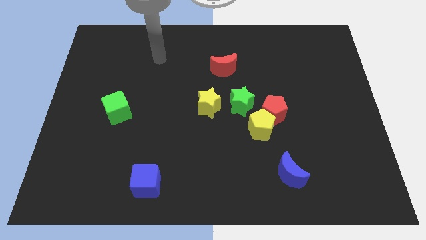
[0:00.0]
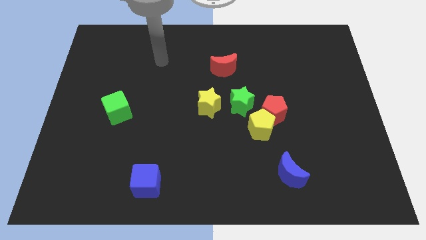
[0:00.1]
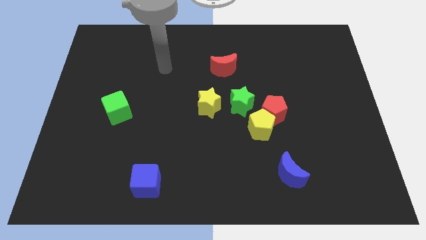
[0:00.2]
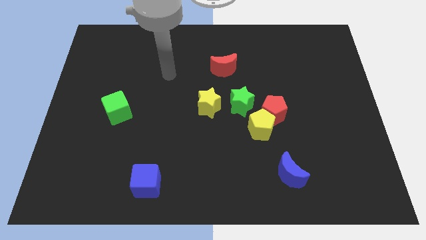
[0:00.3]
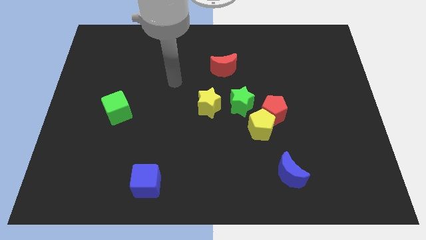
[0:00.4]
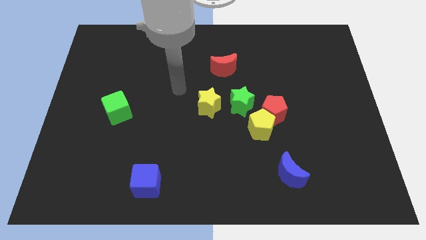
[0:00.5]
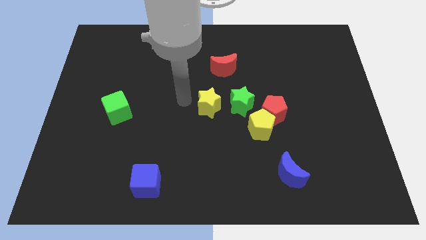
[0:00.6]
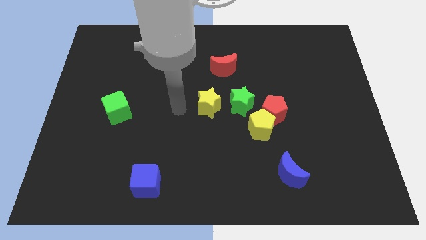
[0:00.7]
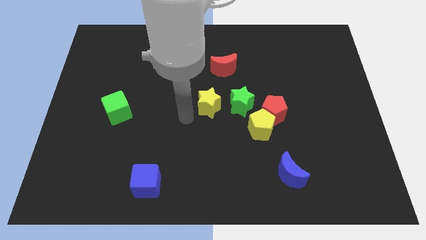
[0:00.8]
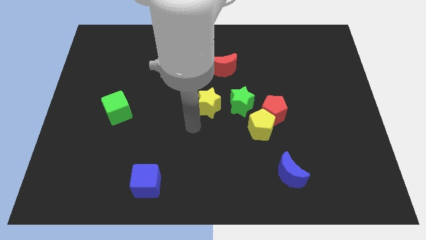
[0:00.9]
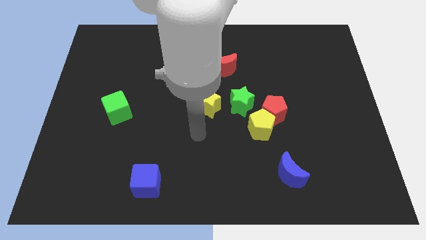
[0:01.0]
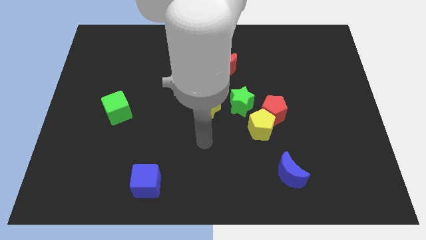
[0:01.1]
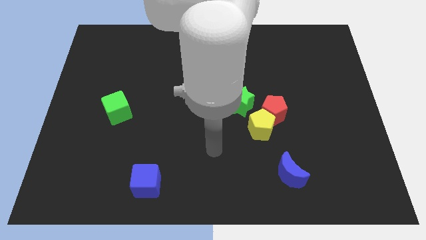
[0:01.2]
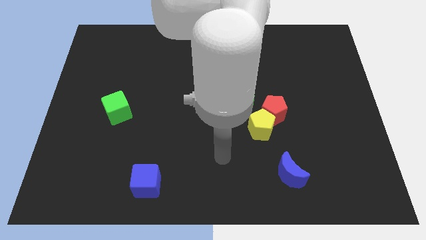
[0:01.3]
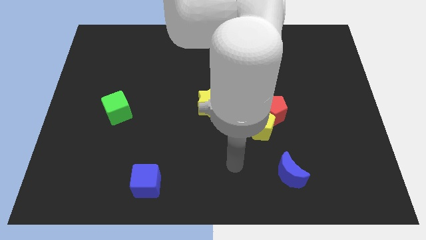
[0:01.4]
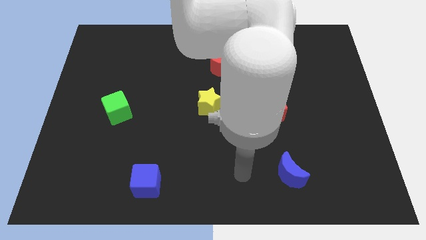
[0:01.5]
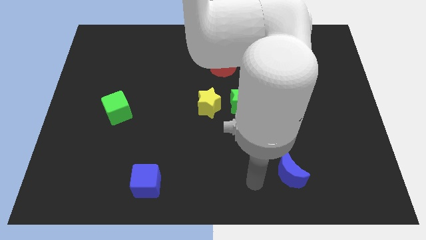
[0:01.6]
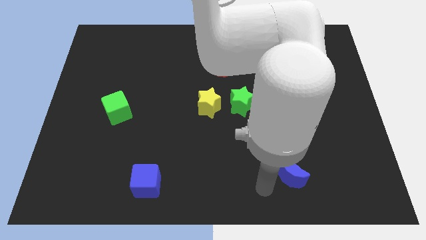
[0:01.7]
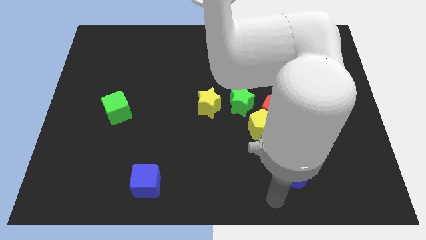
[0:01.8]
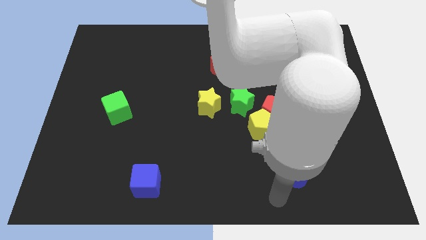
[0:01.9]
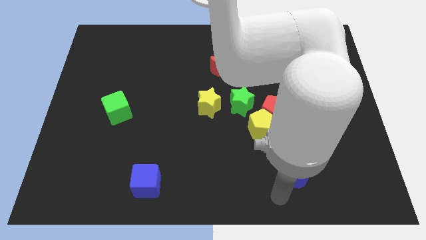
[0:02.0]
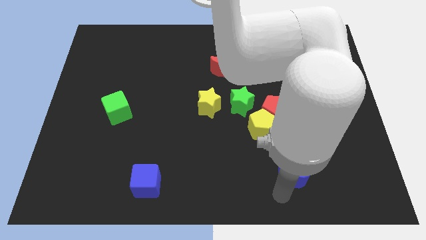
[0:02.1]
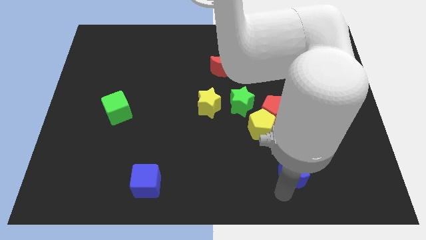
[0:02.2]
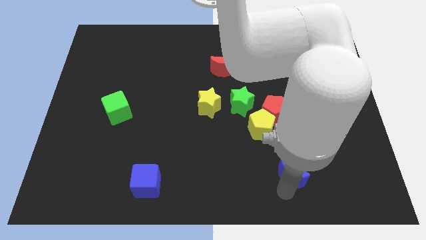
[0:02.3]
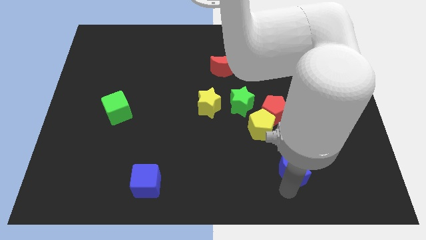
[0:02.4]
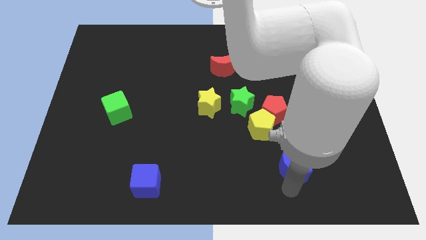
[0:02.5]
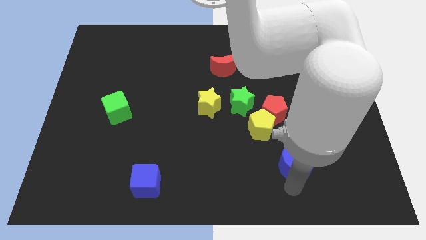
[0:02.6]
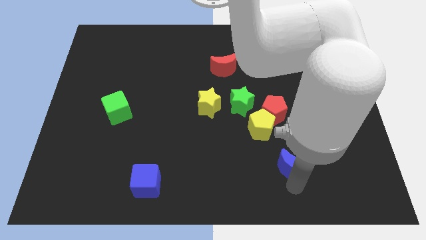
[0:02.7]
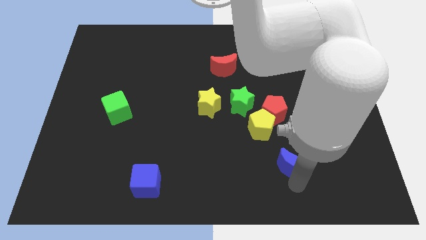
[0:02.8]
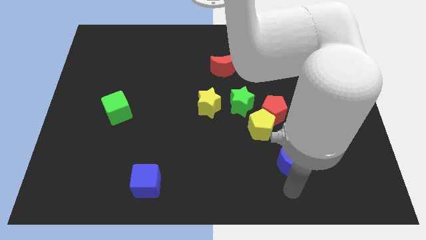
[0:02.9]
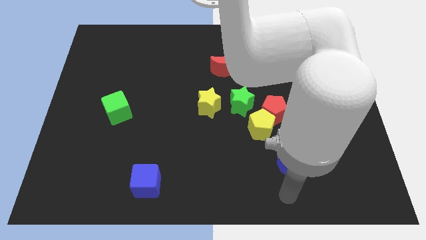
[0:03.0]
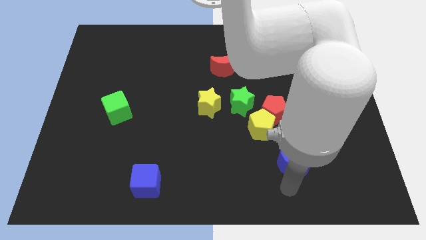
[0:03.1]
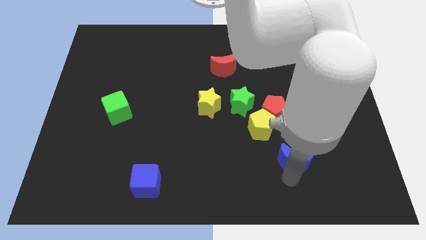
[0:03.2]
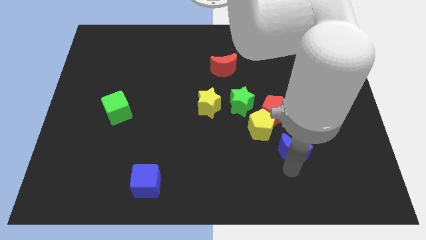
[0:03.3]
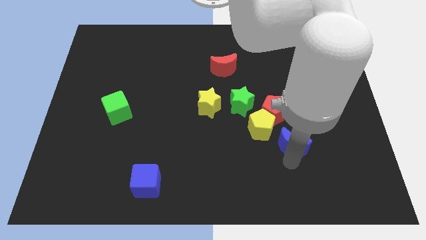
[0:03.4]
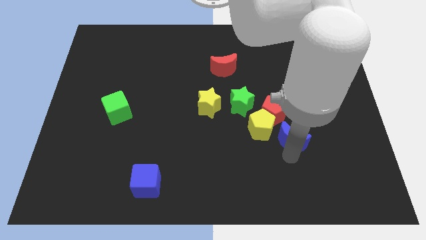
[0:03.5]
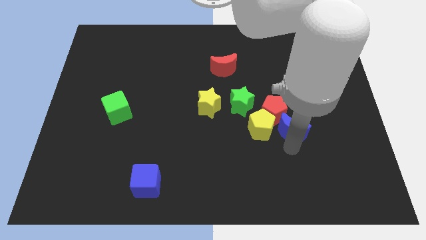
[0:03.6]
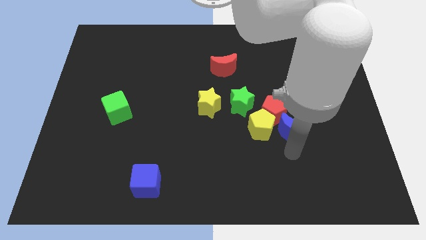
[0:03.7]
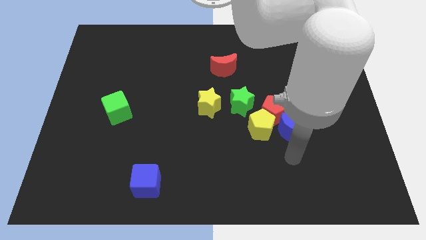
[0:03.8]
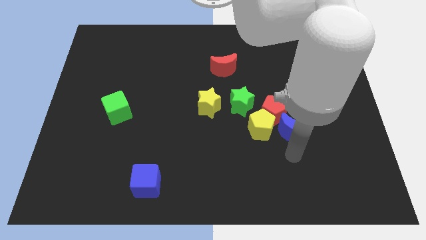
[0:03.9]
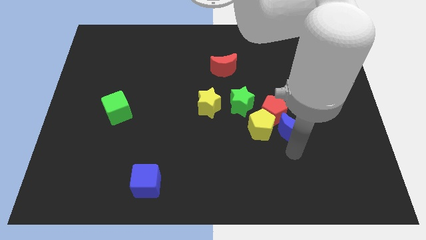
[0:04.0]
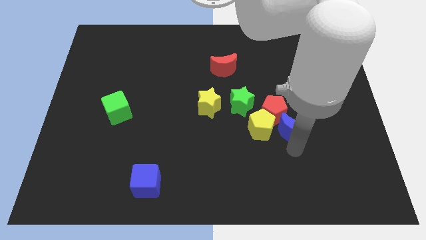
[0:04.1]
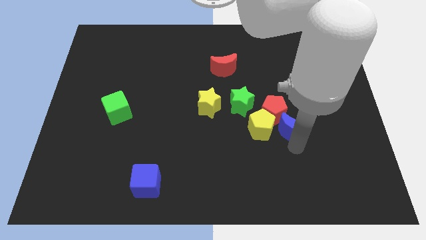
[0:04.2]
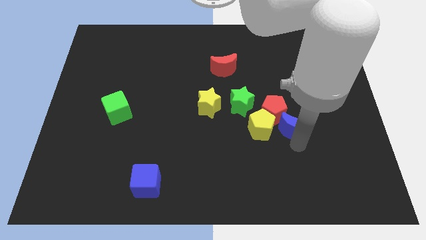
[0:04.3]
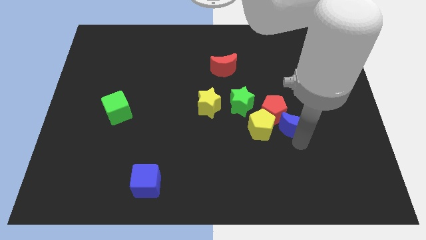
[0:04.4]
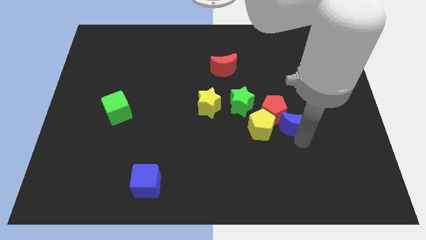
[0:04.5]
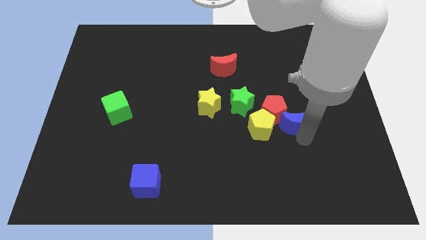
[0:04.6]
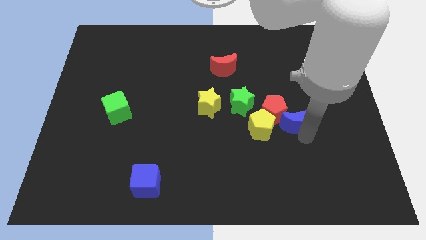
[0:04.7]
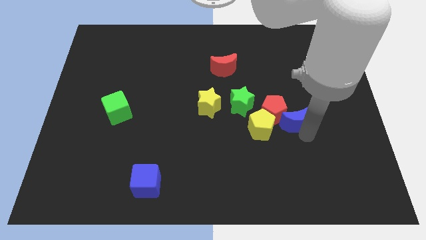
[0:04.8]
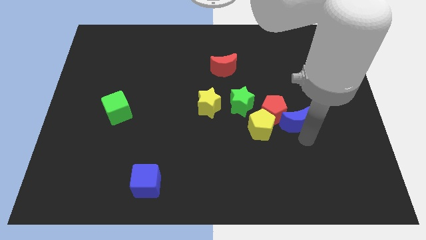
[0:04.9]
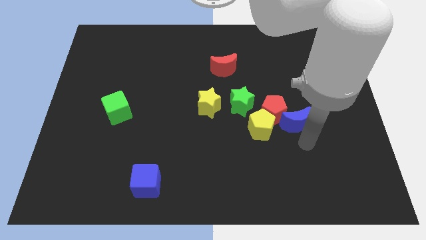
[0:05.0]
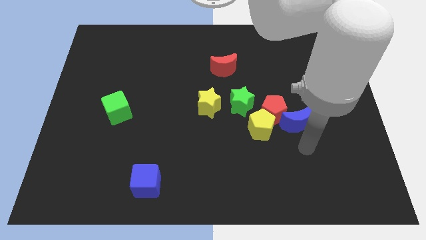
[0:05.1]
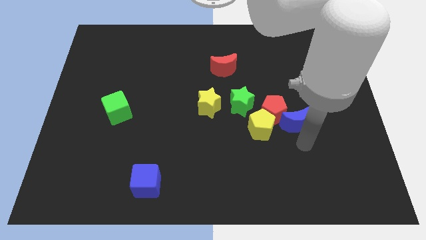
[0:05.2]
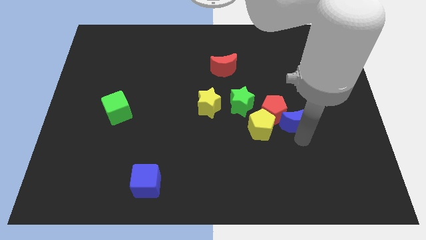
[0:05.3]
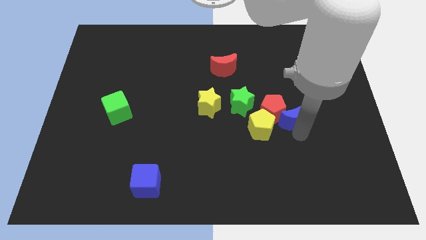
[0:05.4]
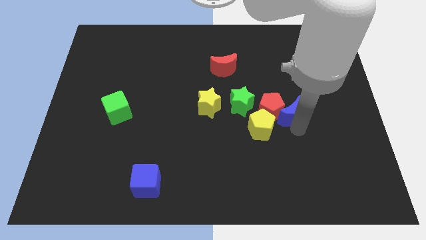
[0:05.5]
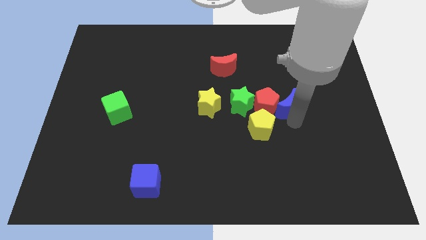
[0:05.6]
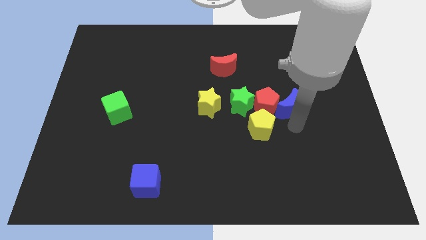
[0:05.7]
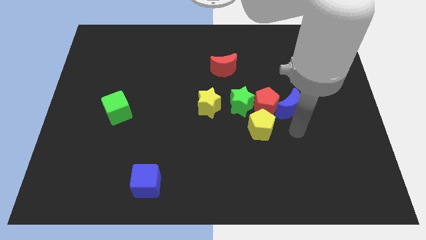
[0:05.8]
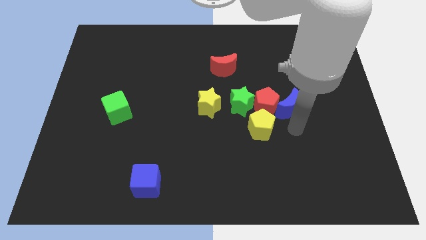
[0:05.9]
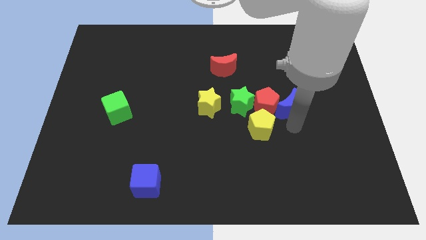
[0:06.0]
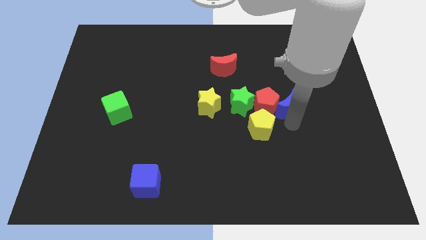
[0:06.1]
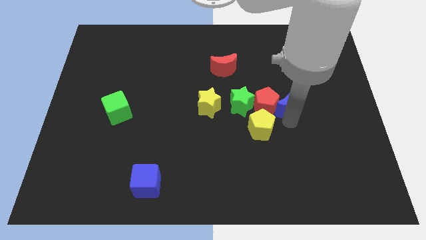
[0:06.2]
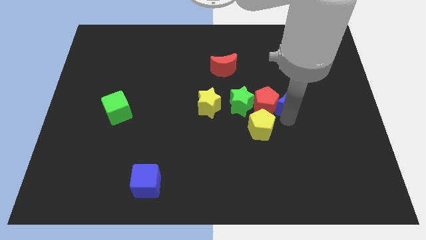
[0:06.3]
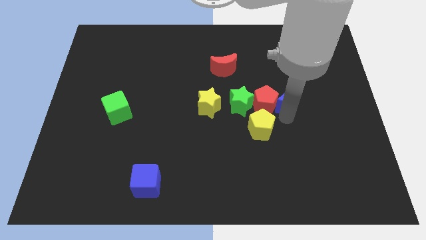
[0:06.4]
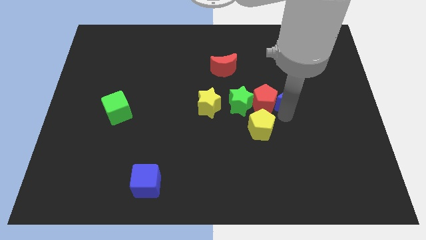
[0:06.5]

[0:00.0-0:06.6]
push the blue moon up

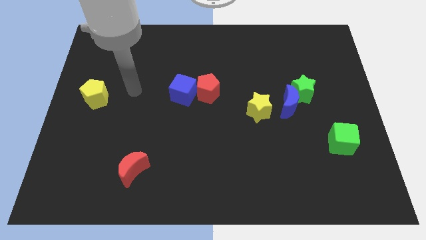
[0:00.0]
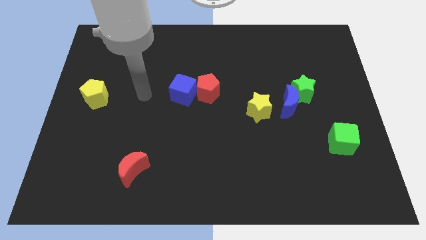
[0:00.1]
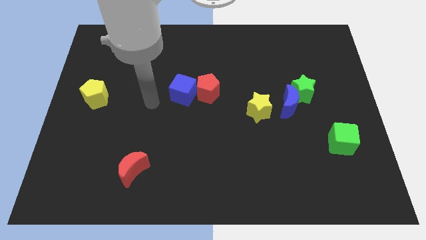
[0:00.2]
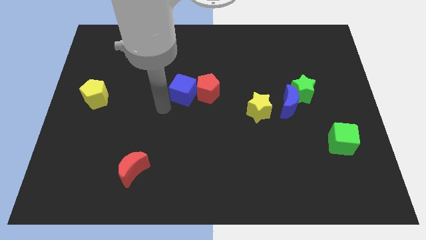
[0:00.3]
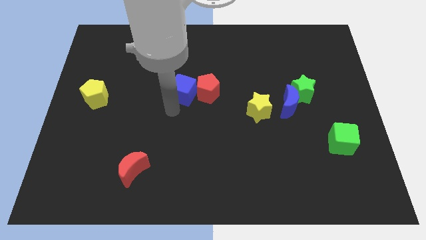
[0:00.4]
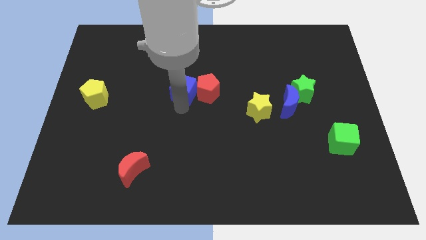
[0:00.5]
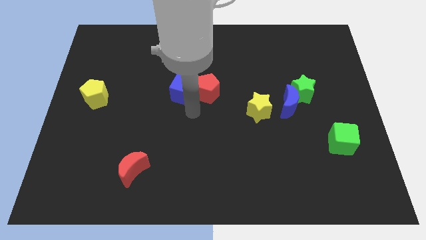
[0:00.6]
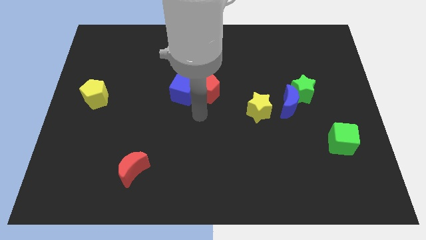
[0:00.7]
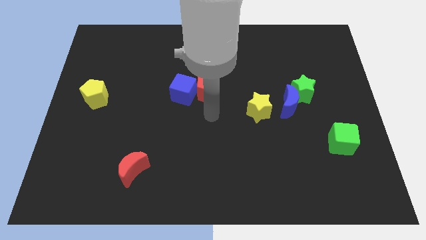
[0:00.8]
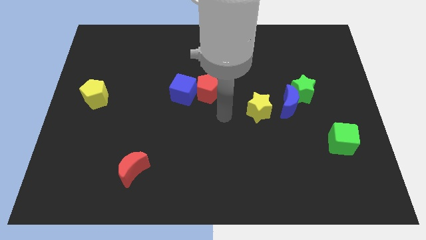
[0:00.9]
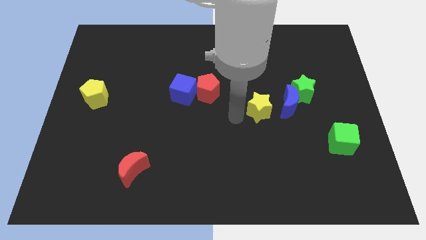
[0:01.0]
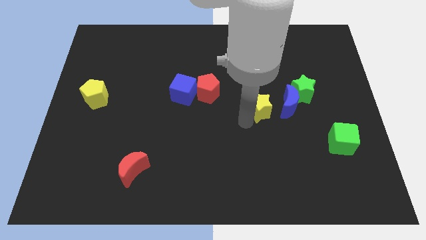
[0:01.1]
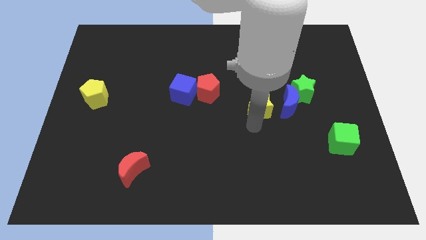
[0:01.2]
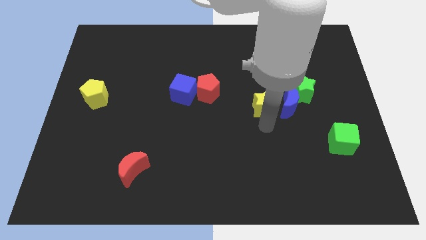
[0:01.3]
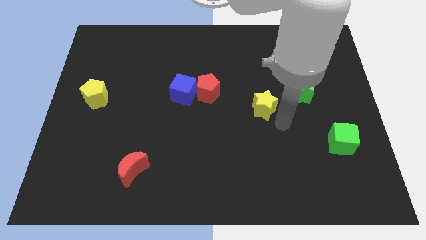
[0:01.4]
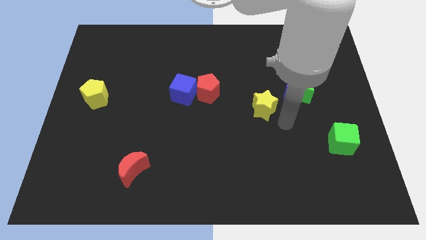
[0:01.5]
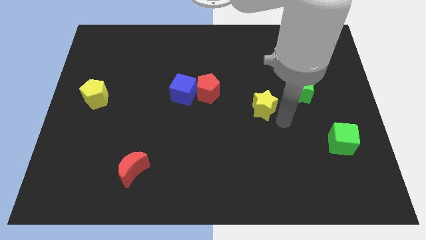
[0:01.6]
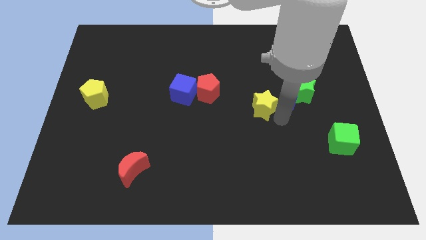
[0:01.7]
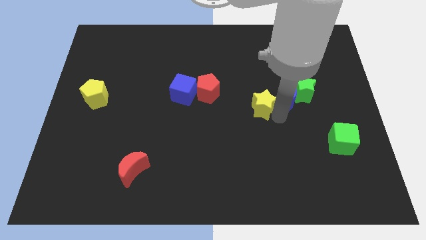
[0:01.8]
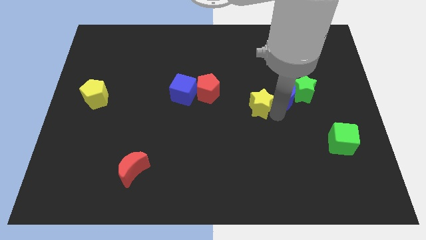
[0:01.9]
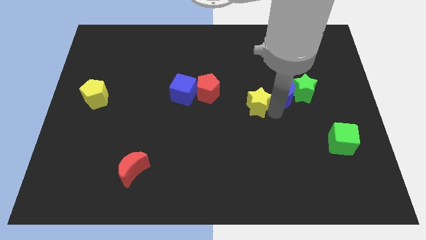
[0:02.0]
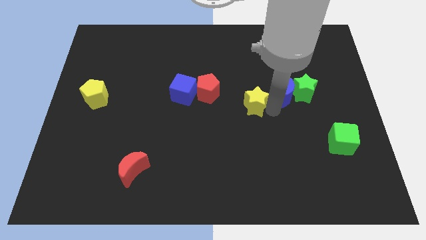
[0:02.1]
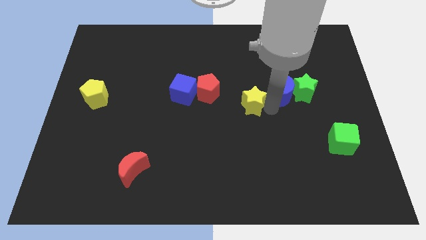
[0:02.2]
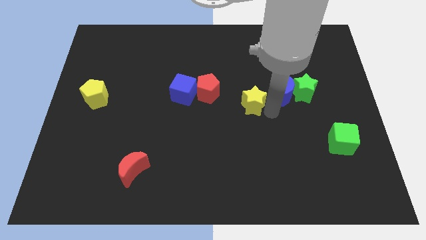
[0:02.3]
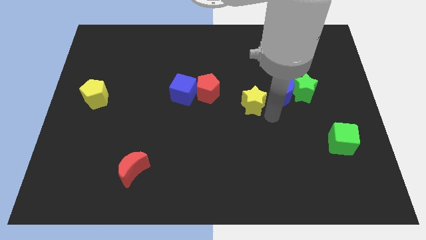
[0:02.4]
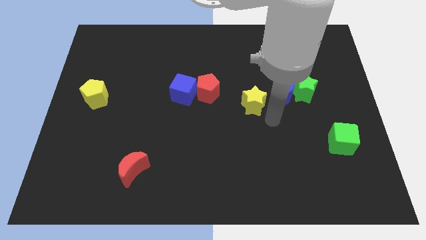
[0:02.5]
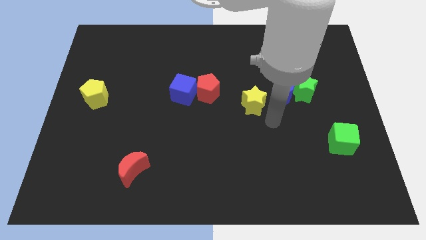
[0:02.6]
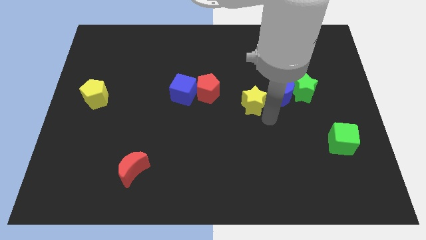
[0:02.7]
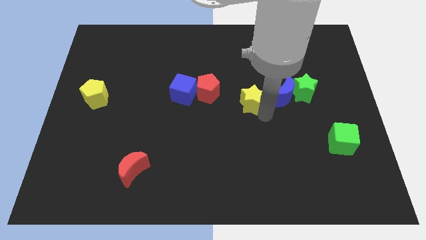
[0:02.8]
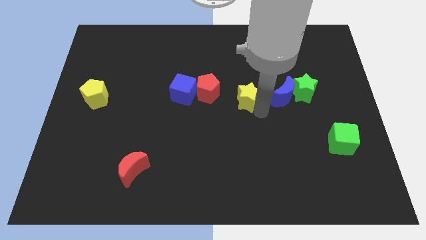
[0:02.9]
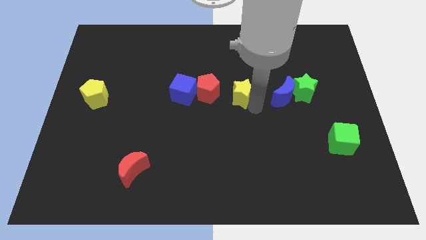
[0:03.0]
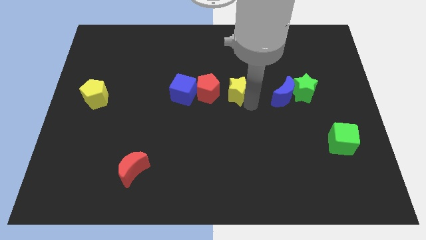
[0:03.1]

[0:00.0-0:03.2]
move the yellow star diagonally up and left a little bit
